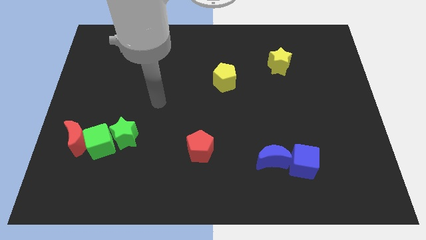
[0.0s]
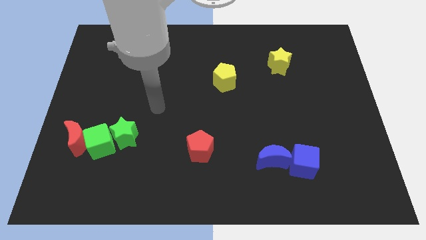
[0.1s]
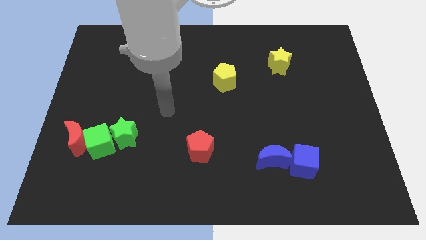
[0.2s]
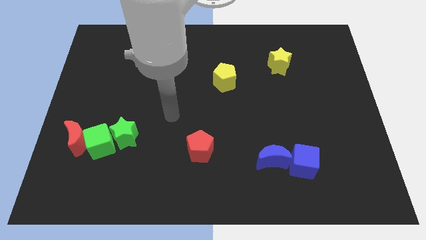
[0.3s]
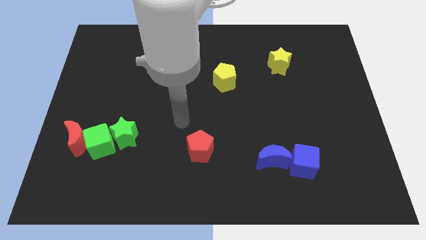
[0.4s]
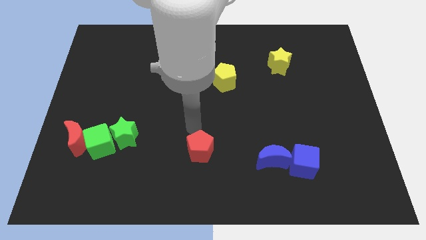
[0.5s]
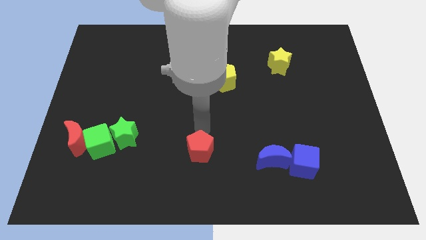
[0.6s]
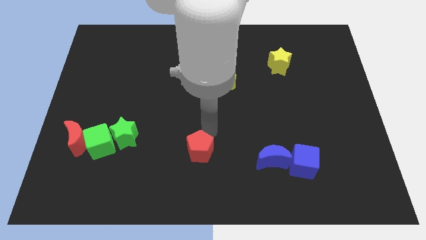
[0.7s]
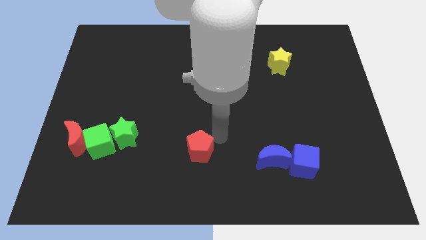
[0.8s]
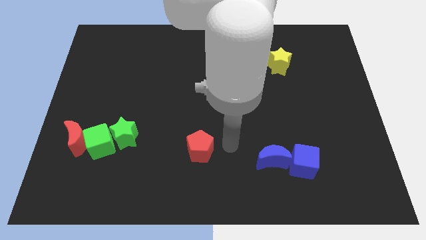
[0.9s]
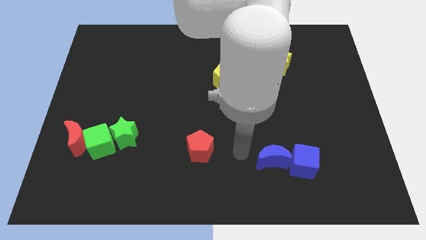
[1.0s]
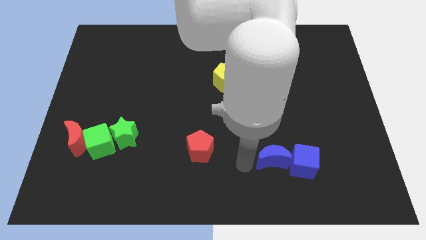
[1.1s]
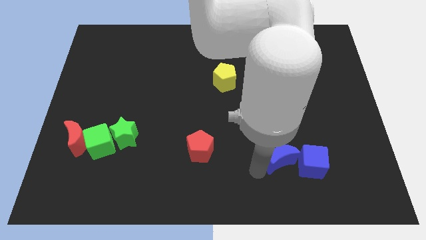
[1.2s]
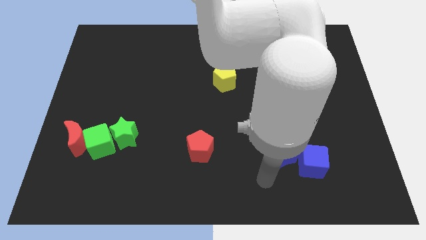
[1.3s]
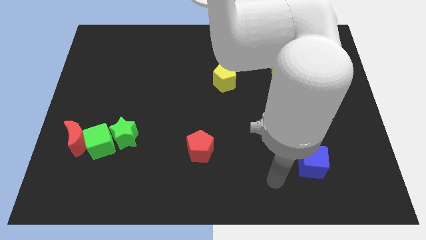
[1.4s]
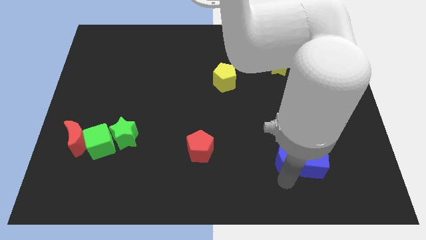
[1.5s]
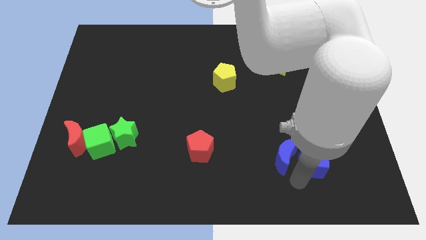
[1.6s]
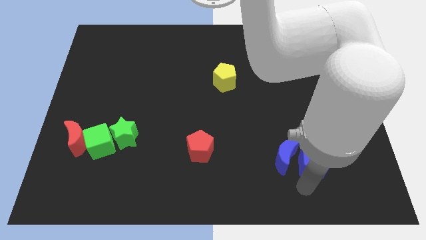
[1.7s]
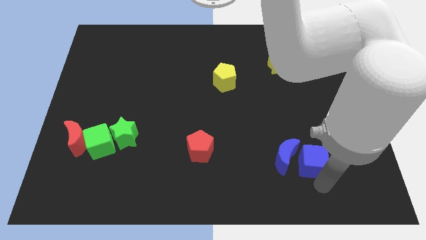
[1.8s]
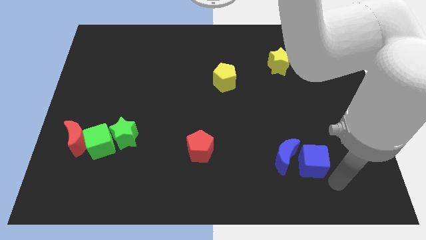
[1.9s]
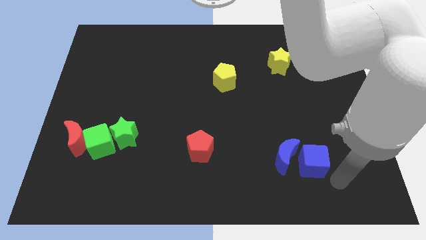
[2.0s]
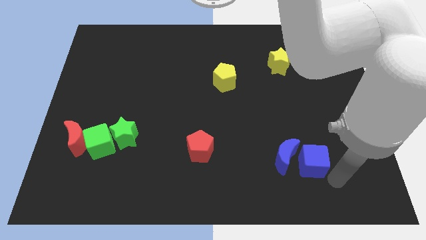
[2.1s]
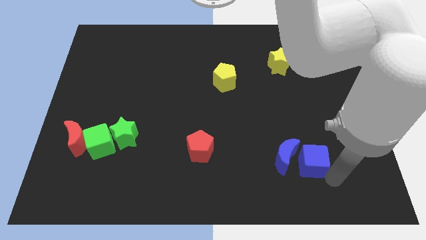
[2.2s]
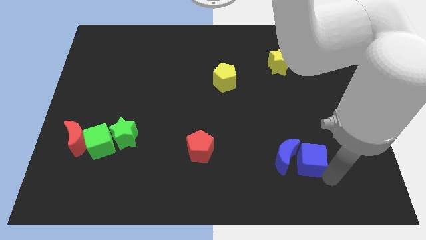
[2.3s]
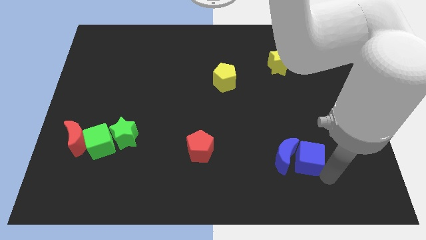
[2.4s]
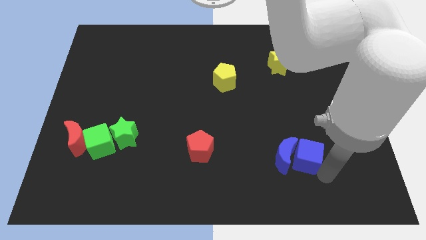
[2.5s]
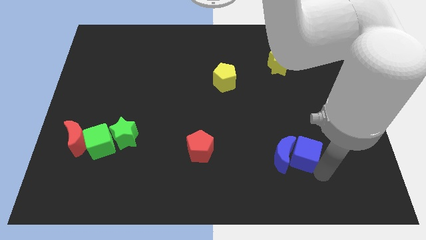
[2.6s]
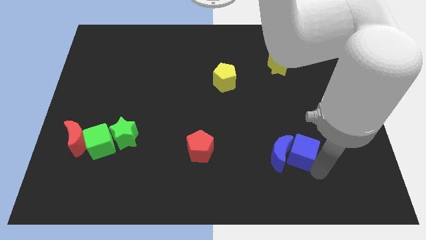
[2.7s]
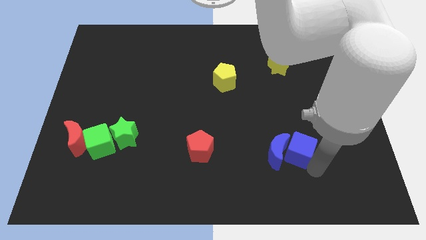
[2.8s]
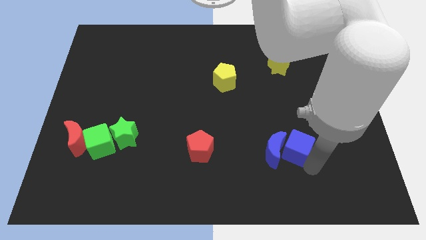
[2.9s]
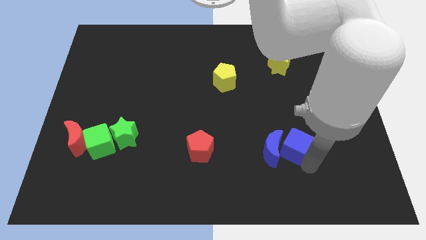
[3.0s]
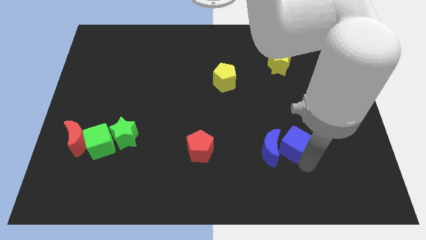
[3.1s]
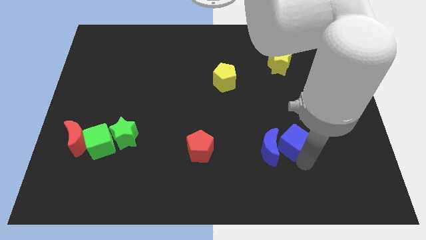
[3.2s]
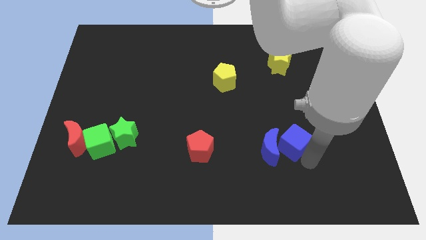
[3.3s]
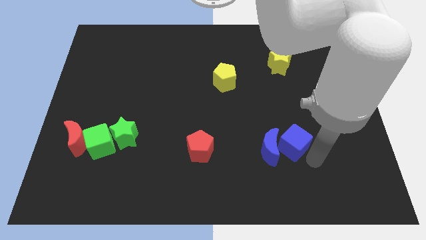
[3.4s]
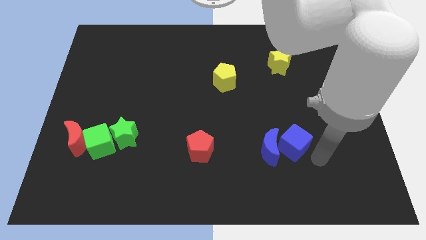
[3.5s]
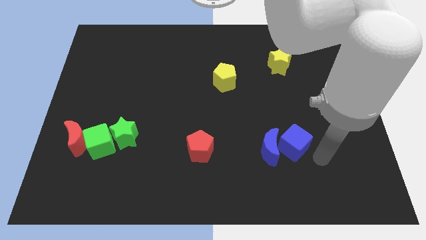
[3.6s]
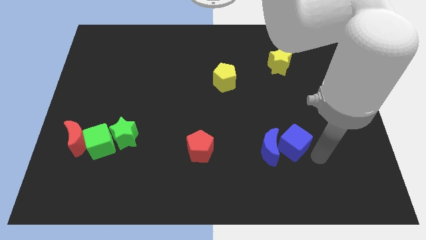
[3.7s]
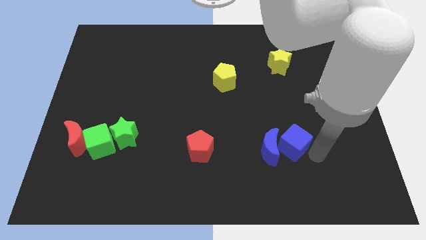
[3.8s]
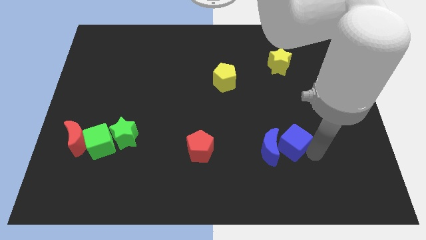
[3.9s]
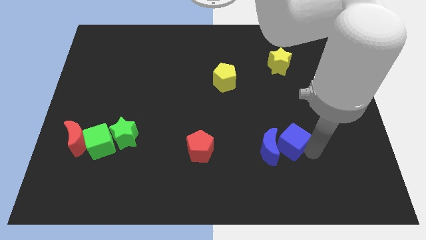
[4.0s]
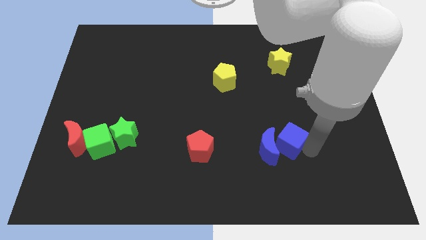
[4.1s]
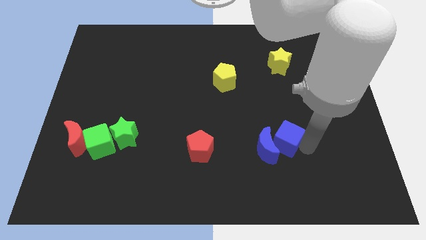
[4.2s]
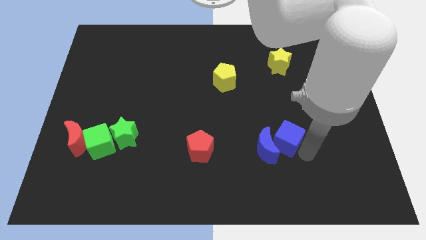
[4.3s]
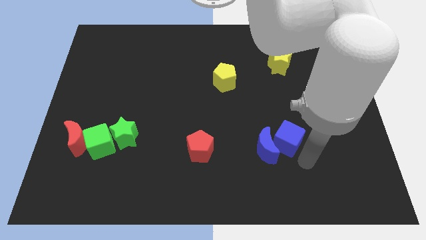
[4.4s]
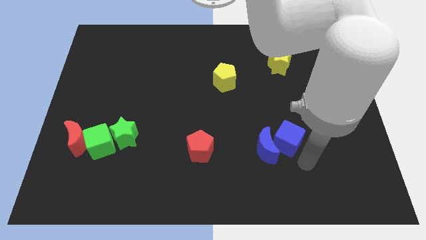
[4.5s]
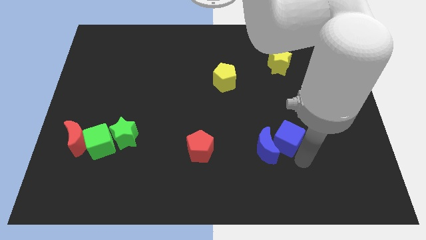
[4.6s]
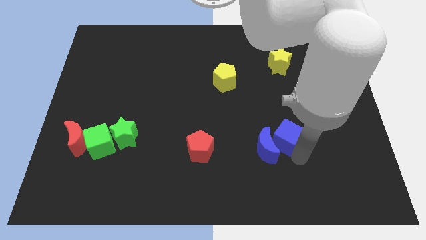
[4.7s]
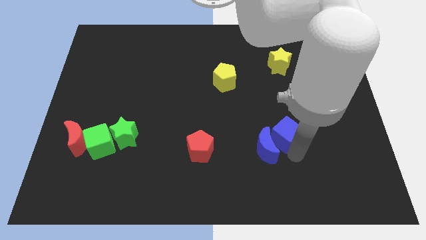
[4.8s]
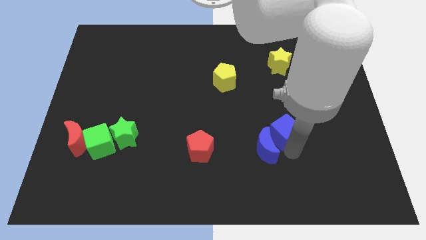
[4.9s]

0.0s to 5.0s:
push the blue cube to the top of the blue moon

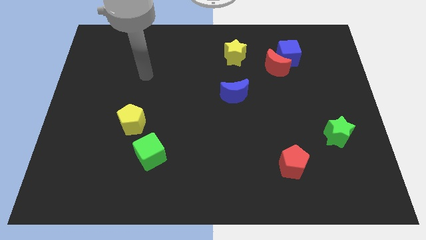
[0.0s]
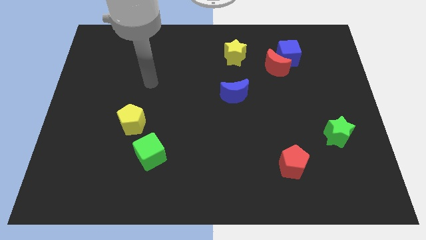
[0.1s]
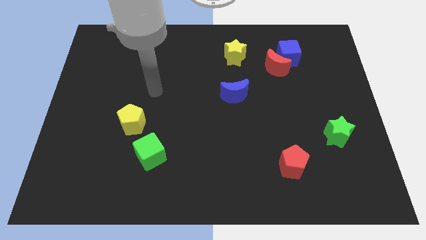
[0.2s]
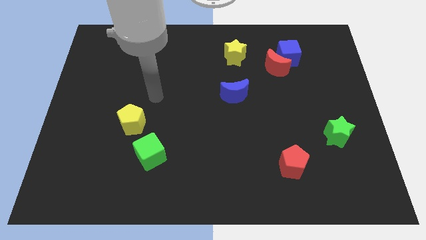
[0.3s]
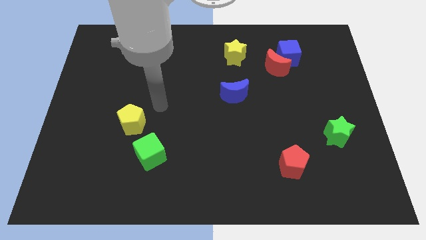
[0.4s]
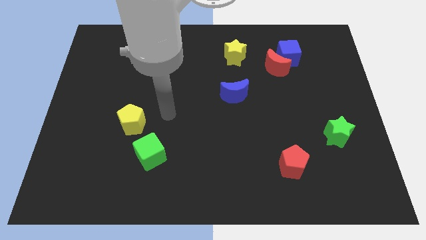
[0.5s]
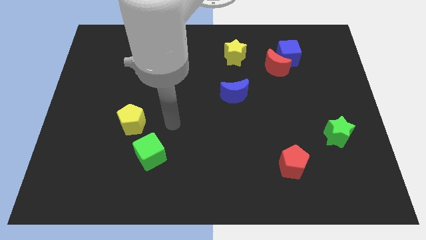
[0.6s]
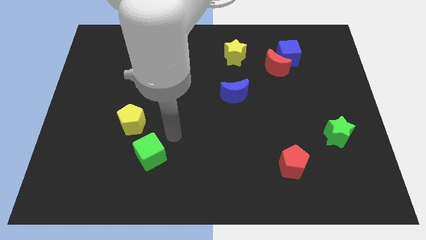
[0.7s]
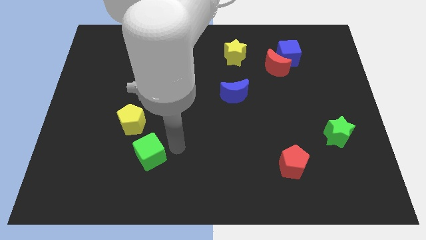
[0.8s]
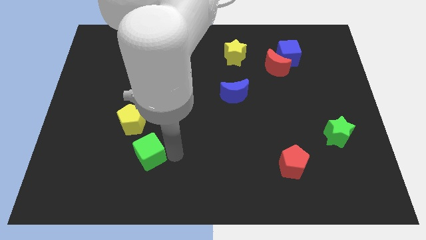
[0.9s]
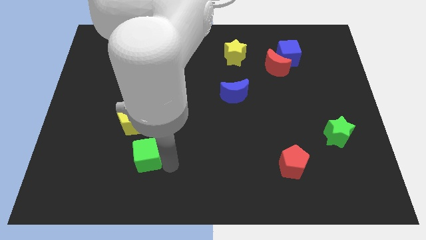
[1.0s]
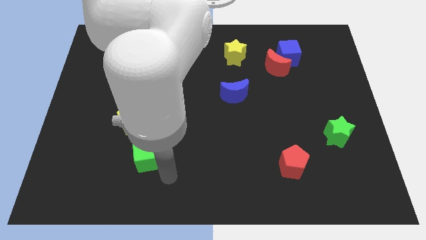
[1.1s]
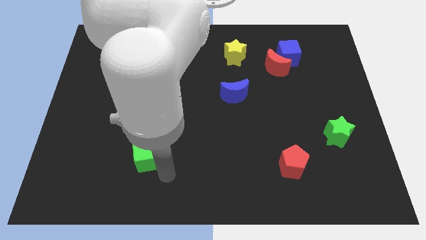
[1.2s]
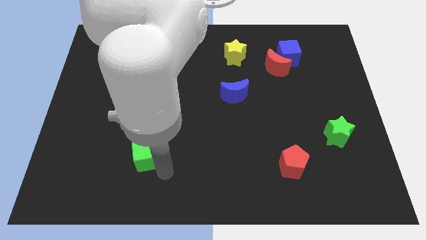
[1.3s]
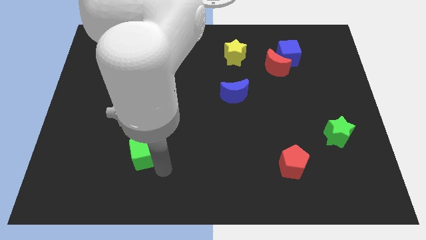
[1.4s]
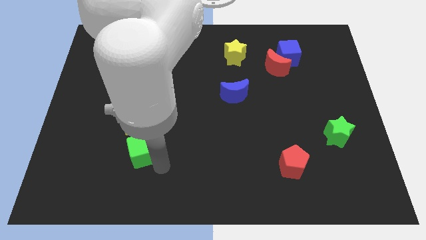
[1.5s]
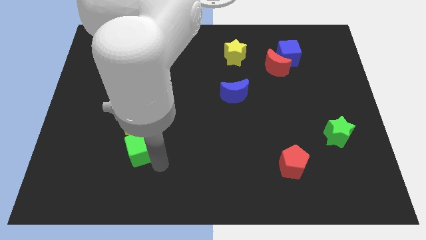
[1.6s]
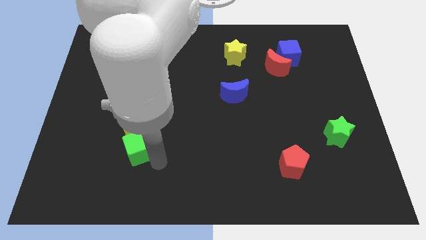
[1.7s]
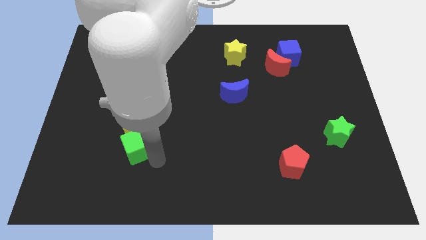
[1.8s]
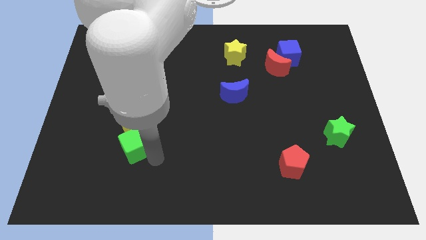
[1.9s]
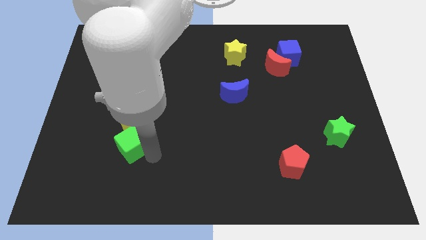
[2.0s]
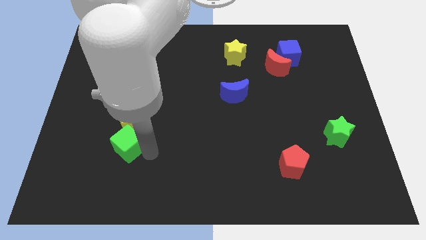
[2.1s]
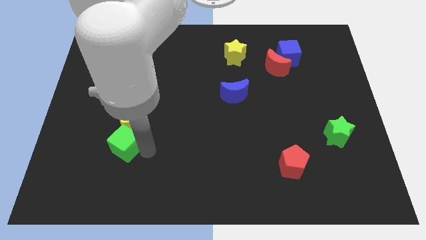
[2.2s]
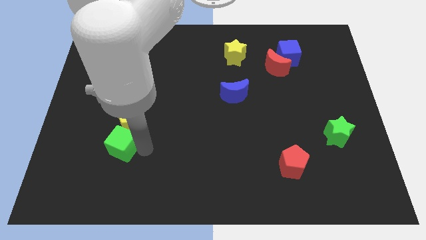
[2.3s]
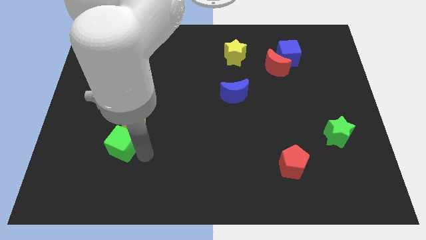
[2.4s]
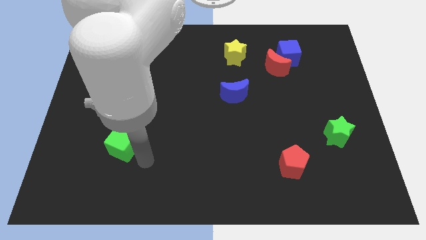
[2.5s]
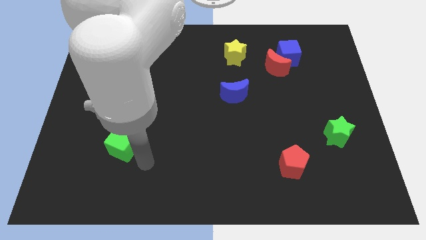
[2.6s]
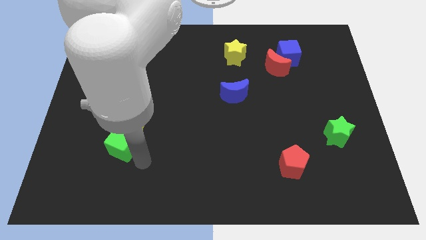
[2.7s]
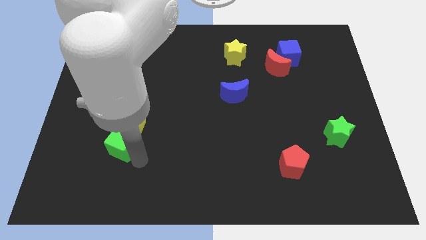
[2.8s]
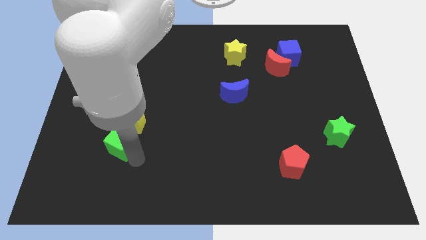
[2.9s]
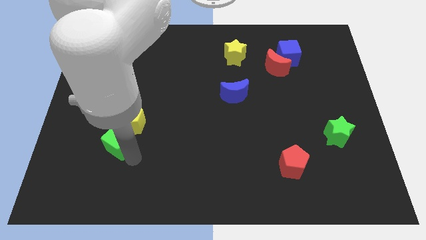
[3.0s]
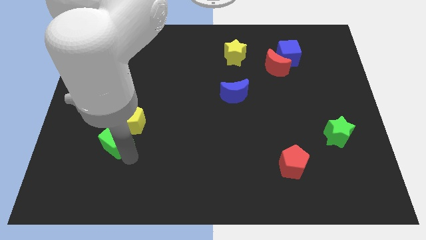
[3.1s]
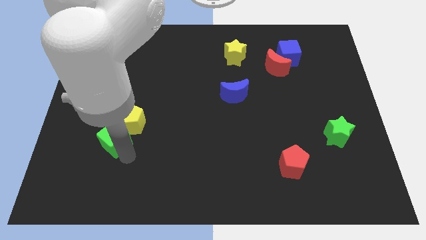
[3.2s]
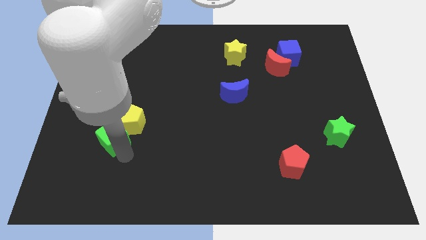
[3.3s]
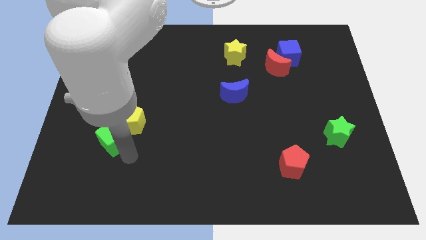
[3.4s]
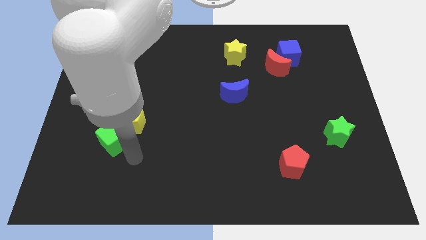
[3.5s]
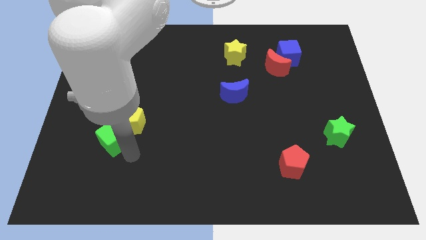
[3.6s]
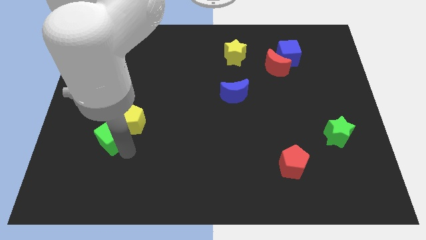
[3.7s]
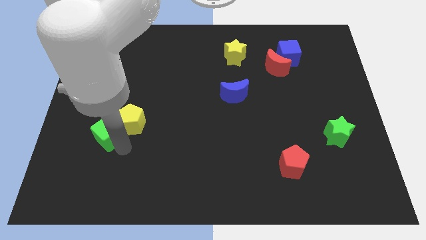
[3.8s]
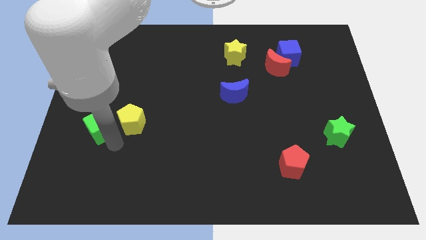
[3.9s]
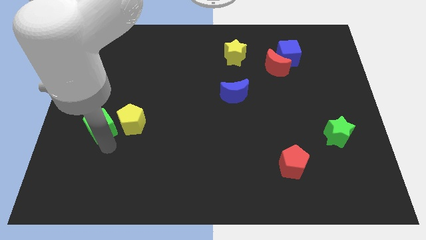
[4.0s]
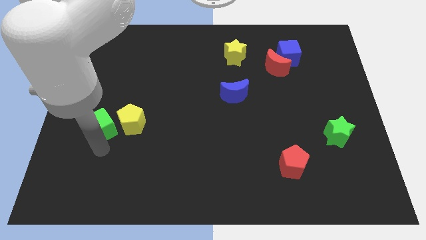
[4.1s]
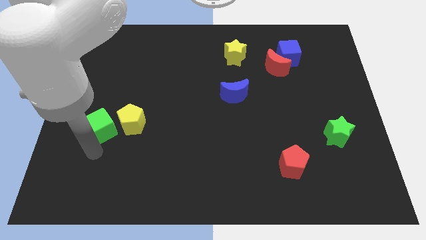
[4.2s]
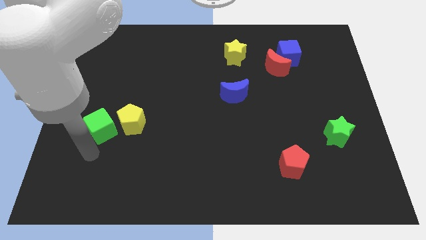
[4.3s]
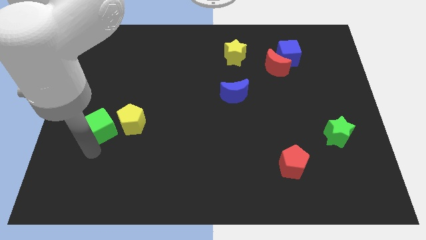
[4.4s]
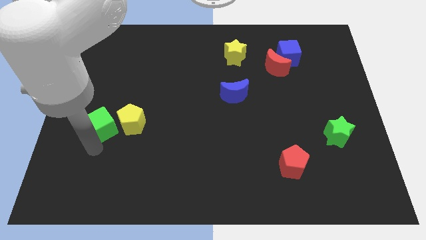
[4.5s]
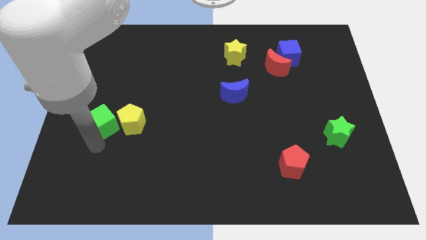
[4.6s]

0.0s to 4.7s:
push the green cube to the top left of the yellow pentagon
